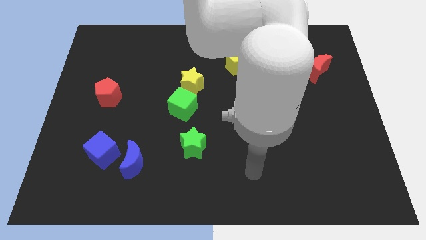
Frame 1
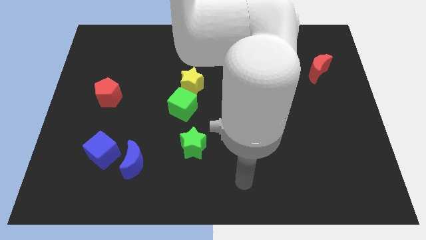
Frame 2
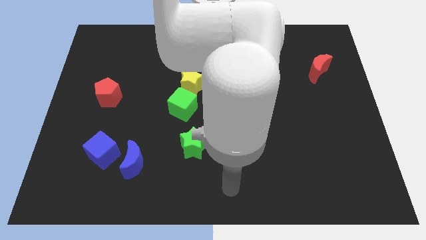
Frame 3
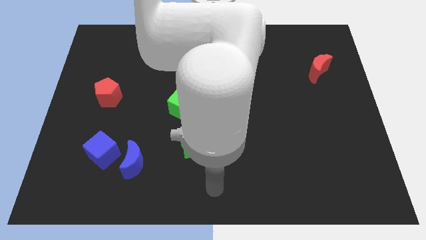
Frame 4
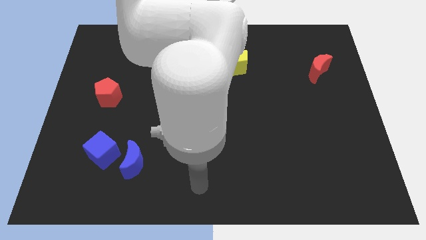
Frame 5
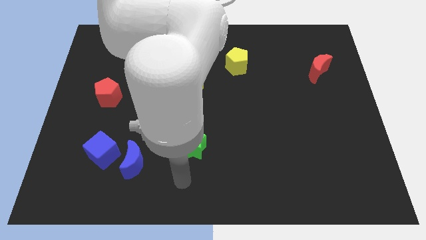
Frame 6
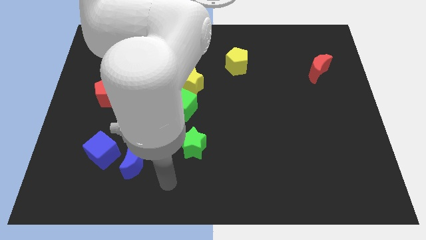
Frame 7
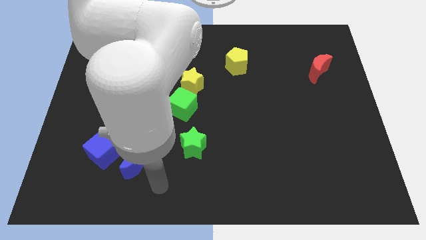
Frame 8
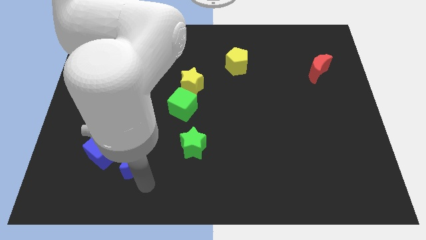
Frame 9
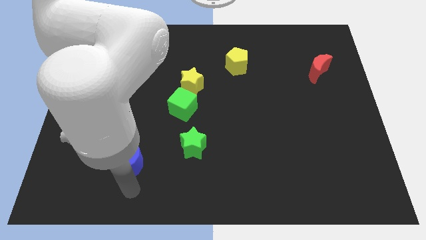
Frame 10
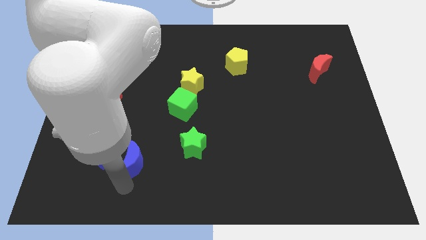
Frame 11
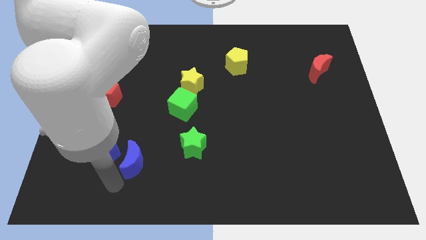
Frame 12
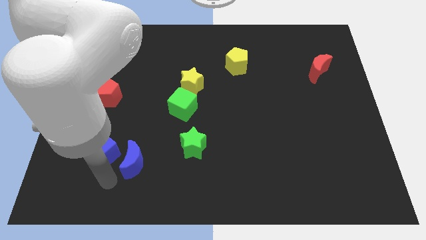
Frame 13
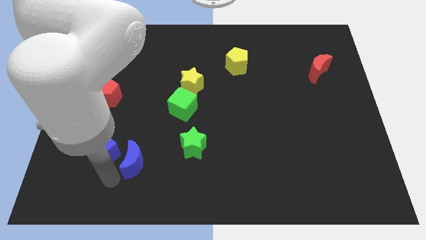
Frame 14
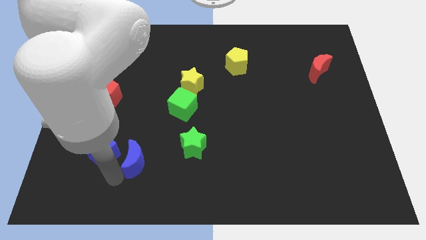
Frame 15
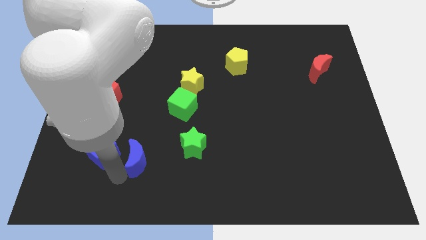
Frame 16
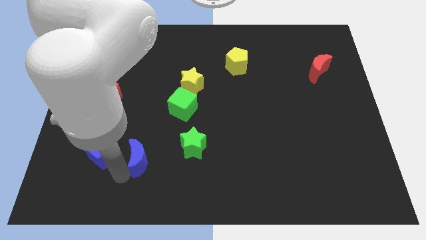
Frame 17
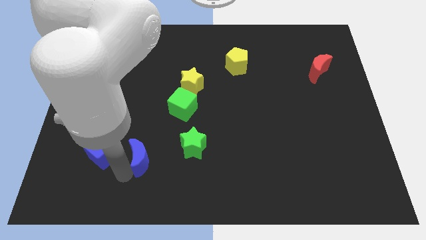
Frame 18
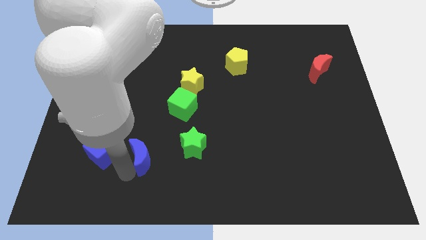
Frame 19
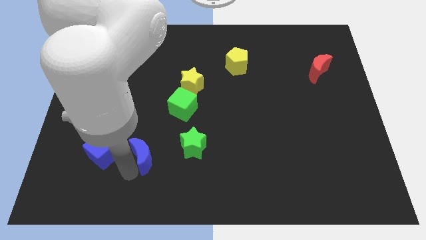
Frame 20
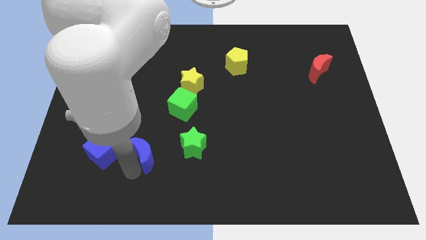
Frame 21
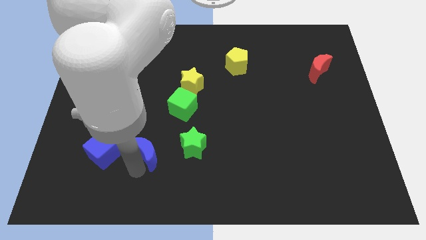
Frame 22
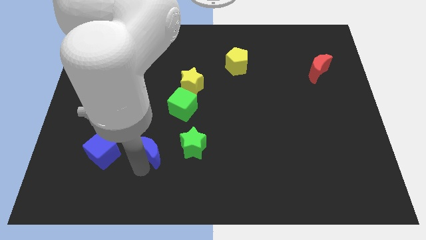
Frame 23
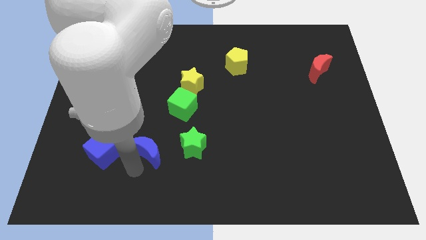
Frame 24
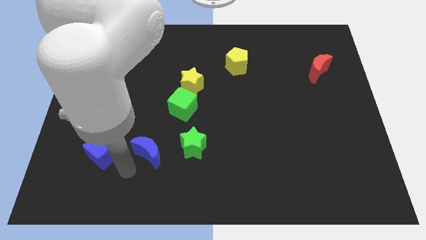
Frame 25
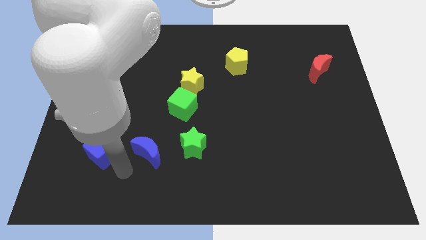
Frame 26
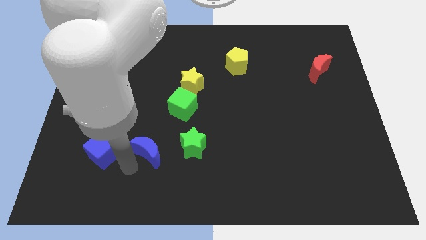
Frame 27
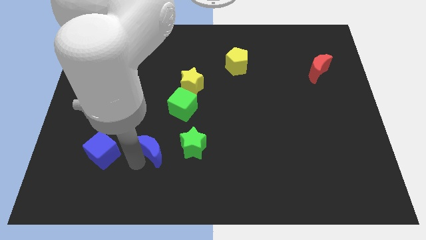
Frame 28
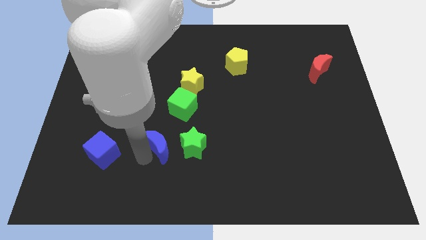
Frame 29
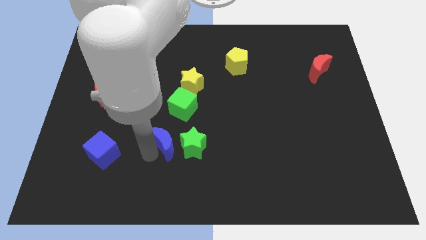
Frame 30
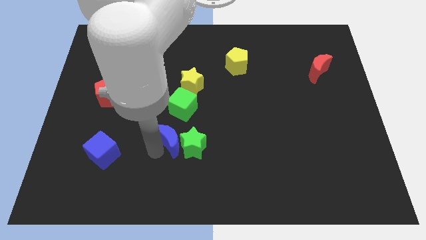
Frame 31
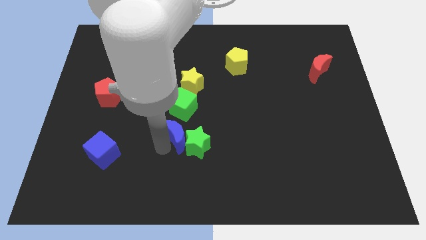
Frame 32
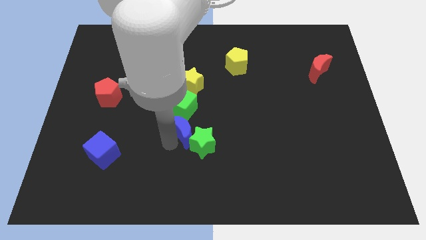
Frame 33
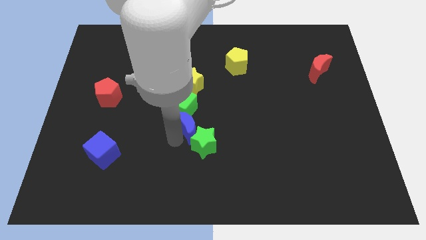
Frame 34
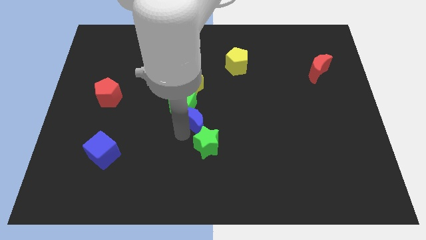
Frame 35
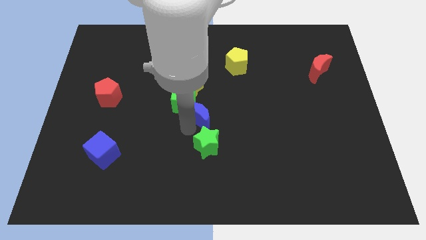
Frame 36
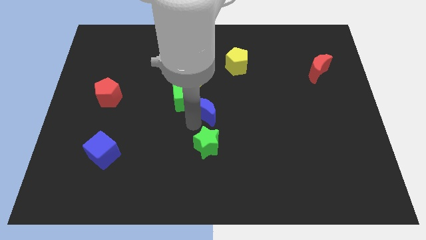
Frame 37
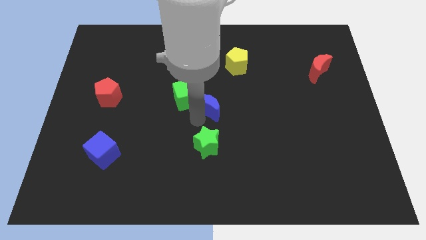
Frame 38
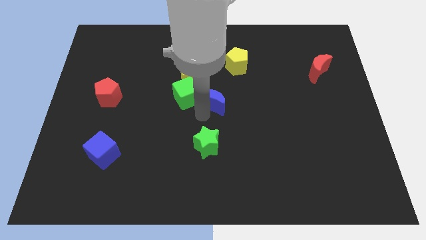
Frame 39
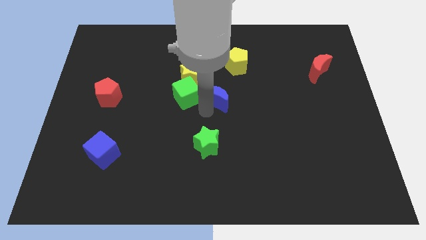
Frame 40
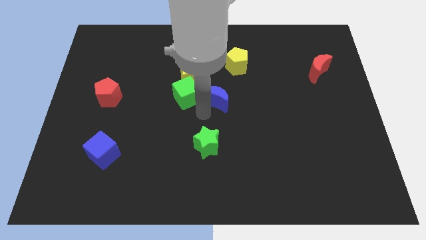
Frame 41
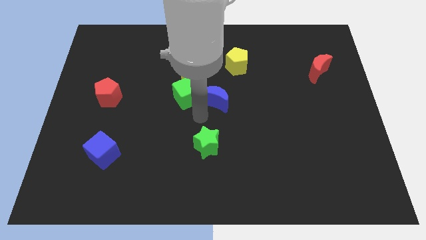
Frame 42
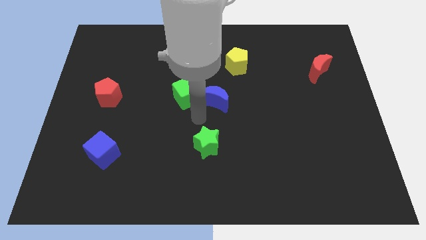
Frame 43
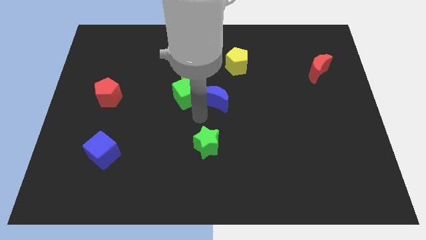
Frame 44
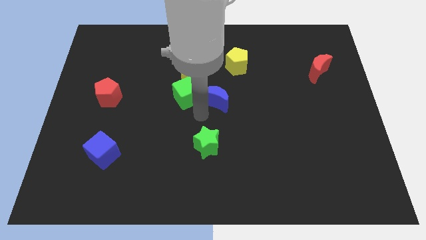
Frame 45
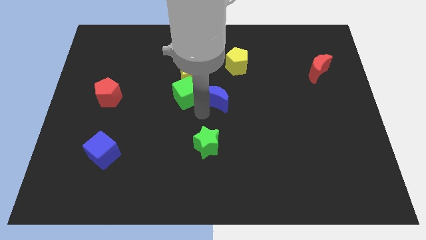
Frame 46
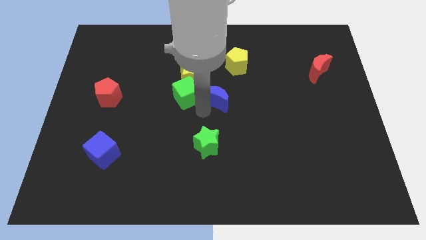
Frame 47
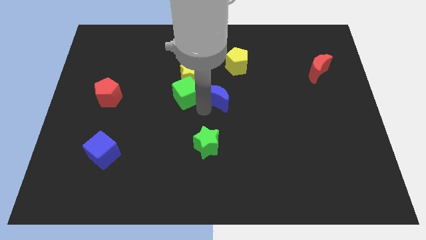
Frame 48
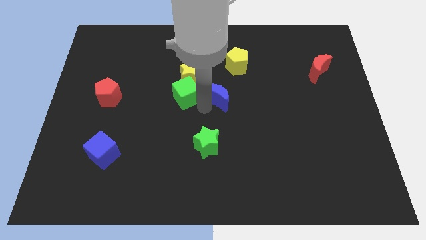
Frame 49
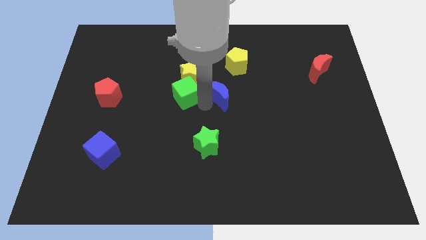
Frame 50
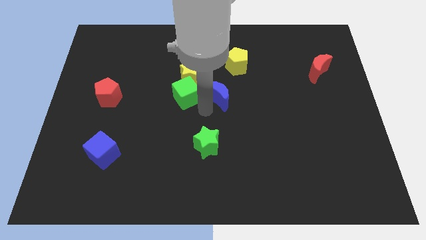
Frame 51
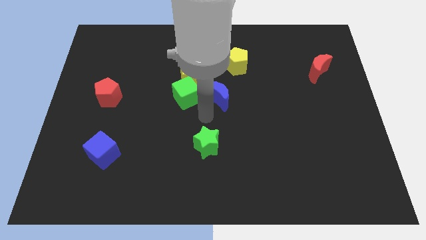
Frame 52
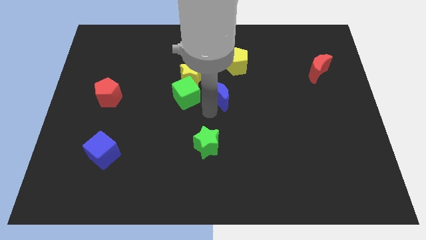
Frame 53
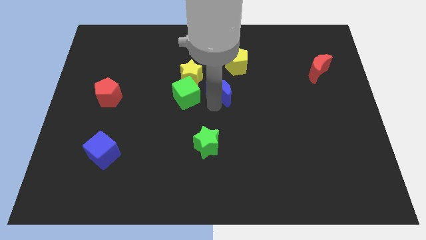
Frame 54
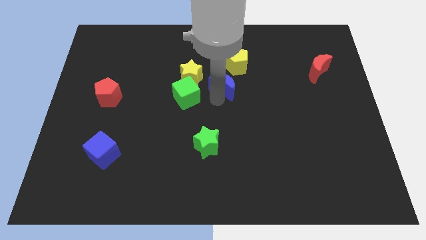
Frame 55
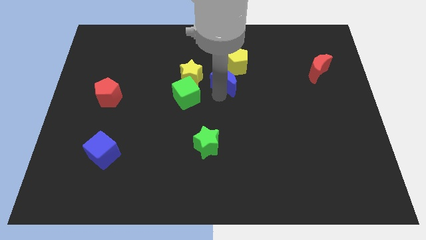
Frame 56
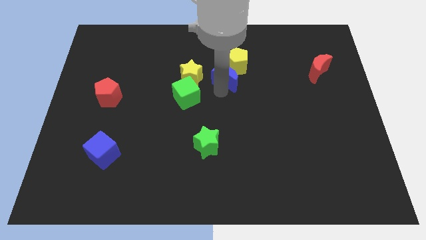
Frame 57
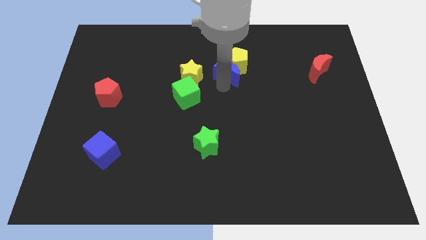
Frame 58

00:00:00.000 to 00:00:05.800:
put the blue moon towards the yellow pentagon
